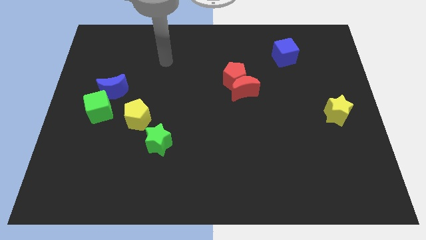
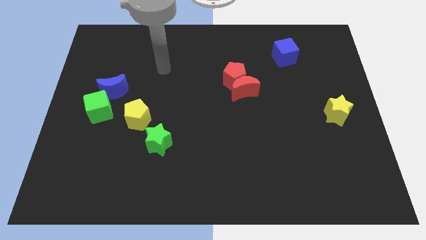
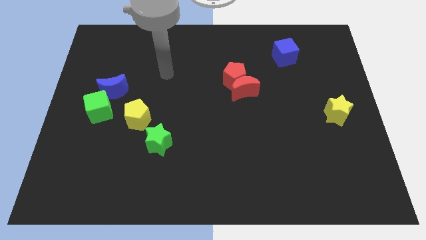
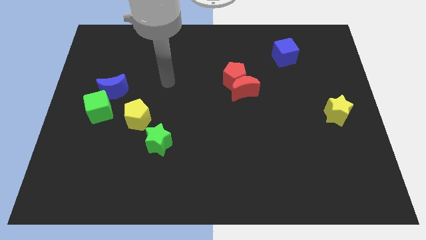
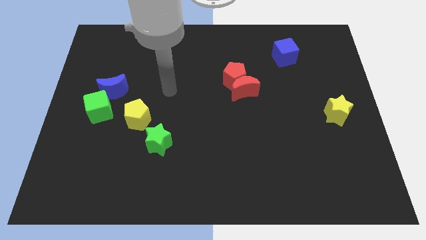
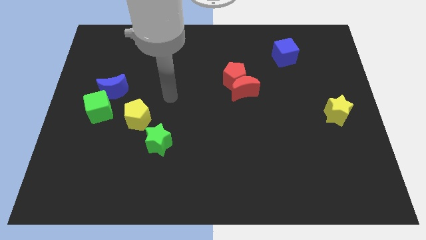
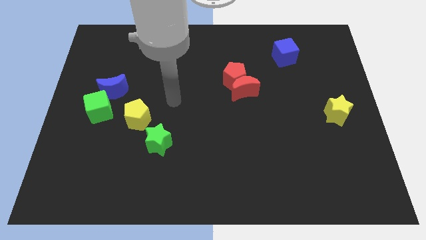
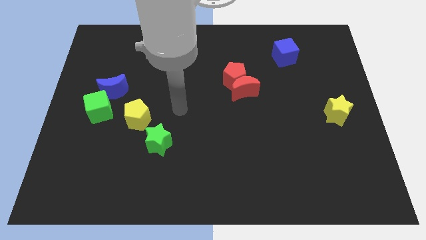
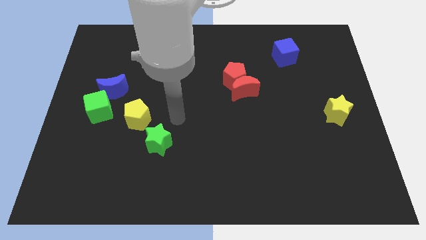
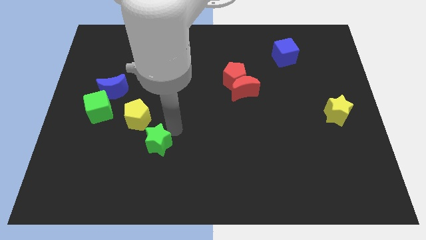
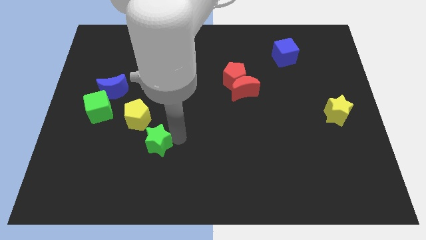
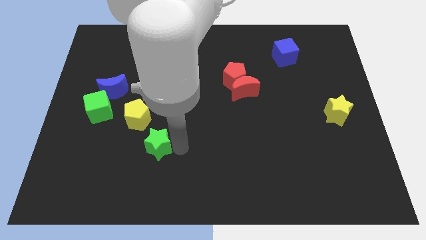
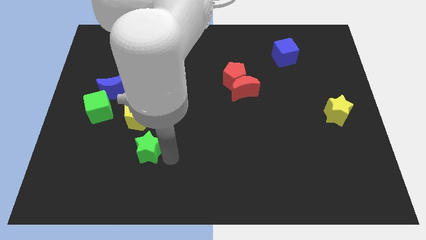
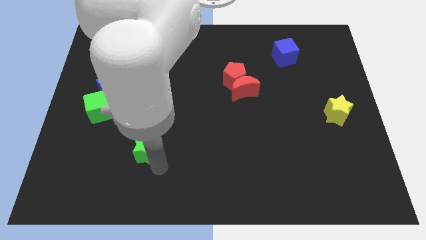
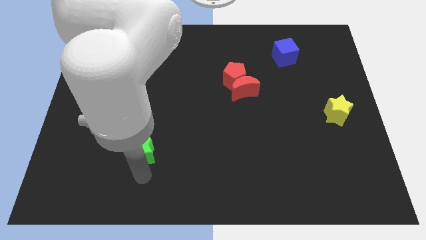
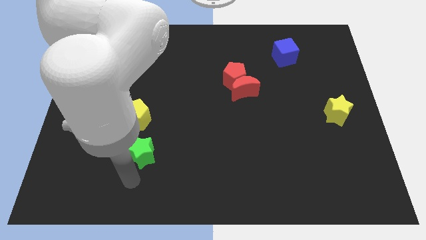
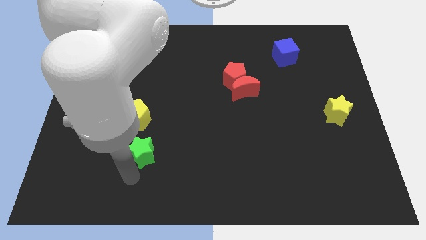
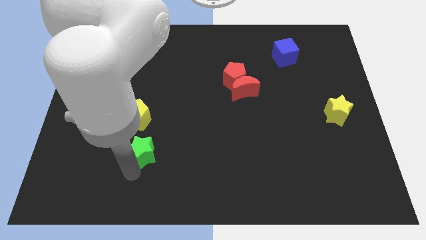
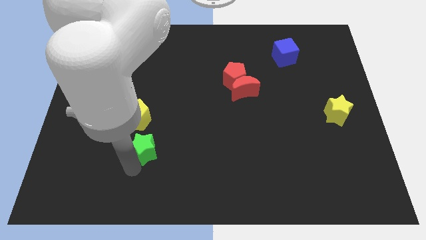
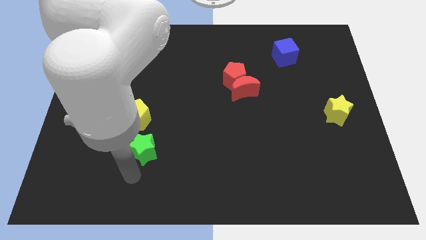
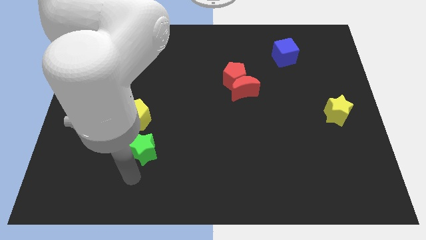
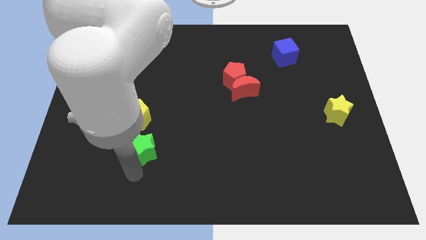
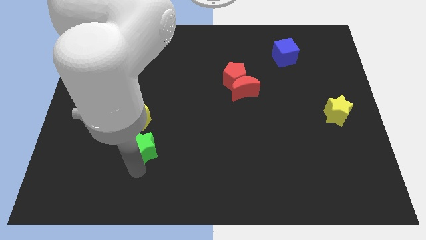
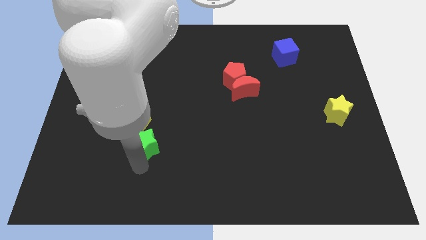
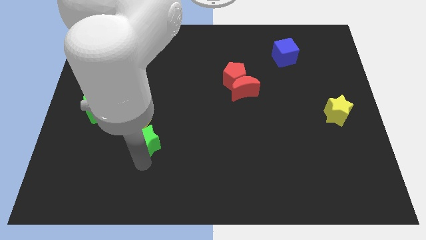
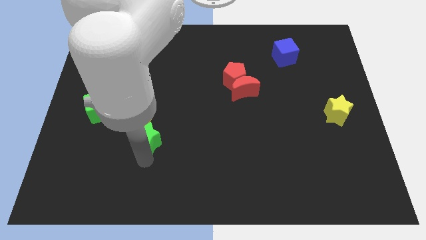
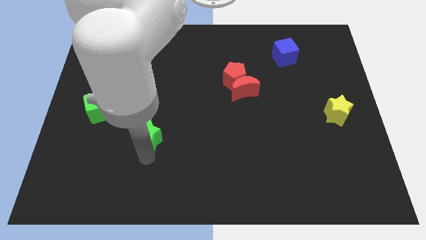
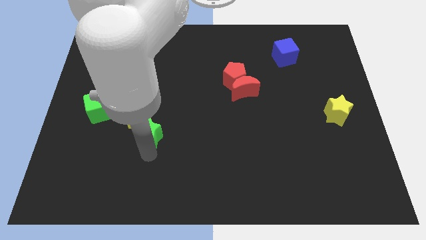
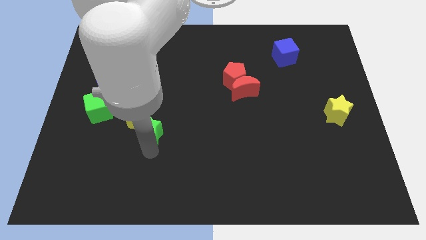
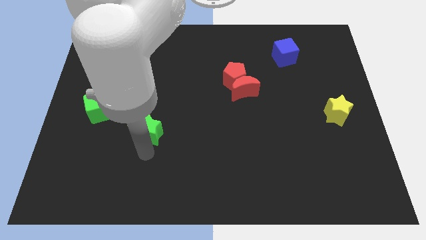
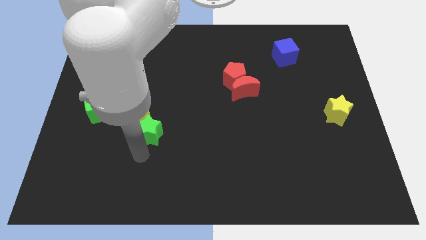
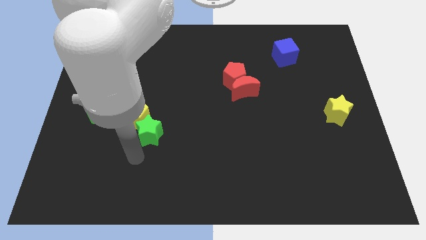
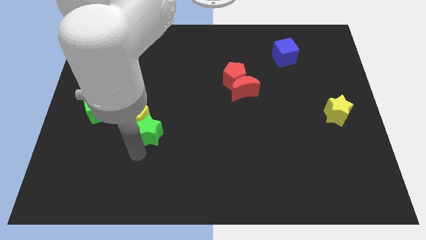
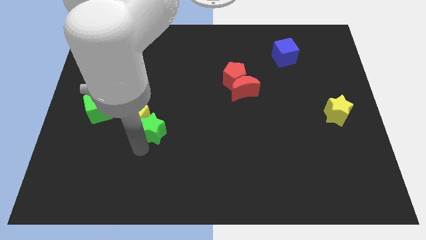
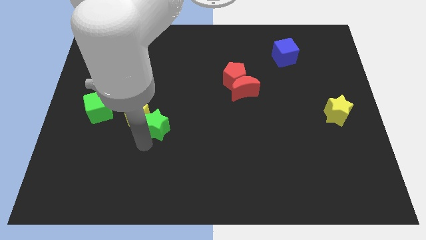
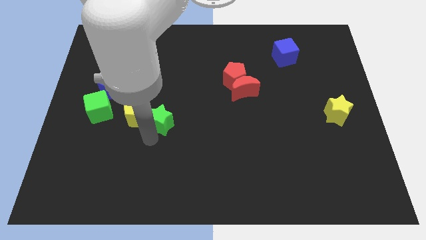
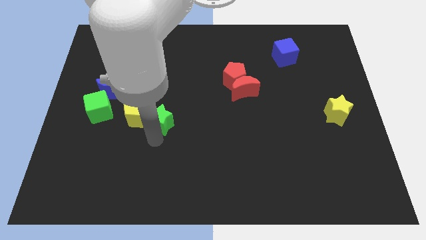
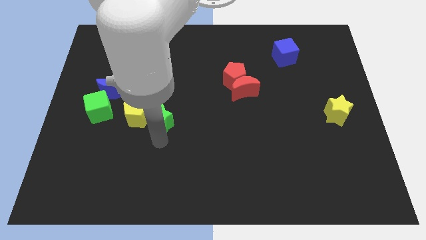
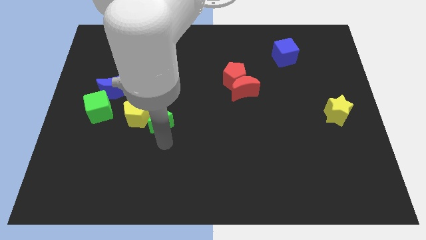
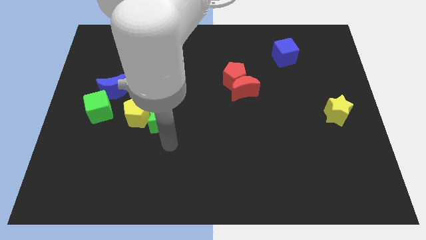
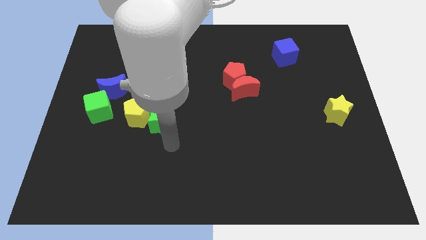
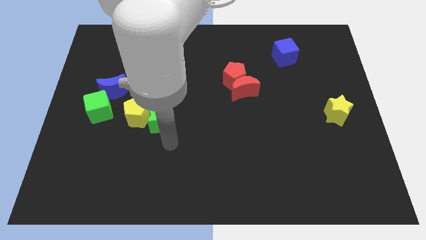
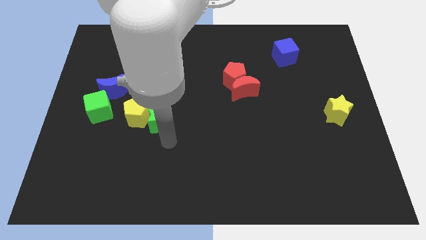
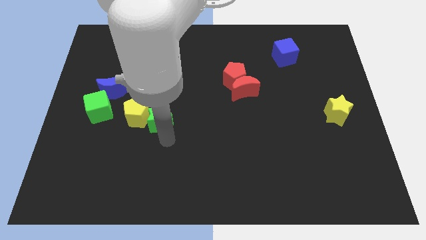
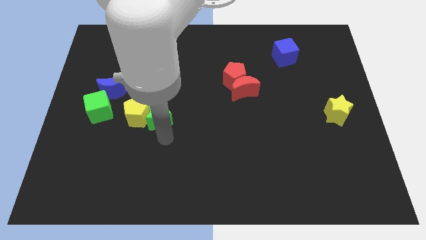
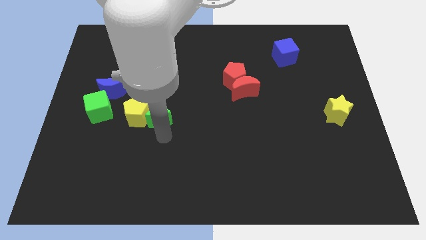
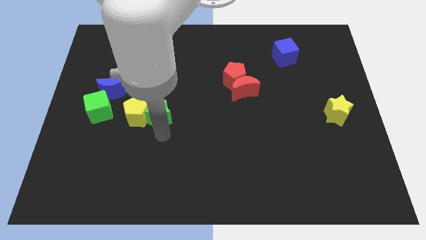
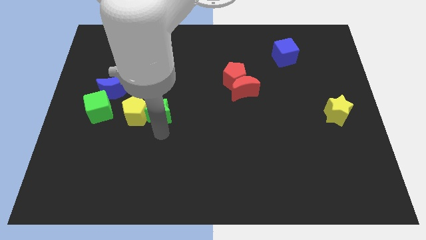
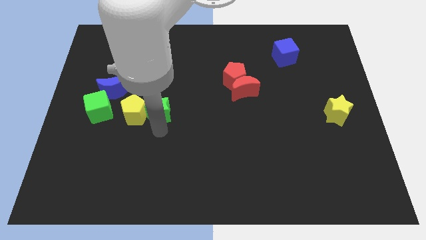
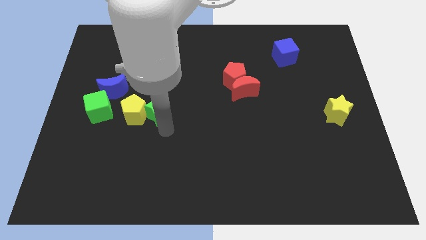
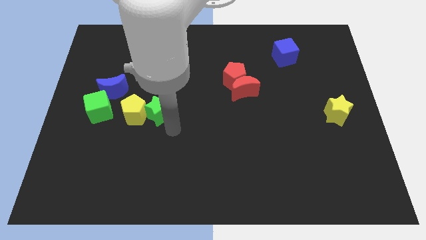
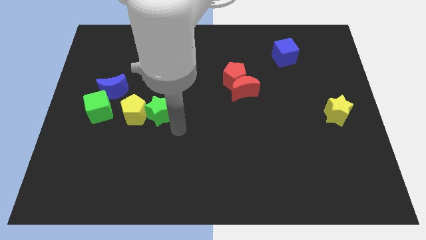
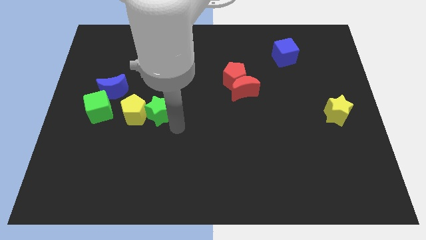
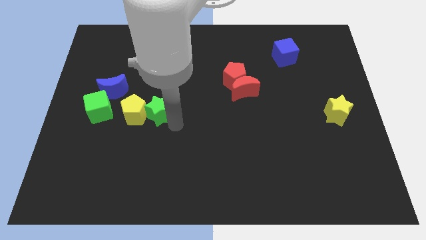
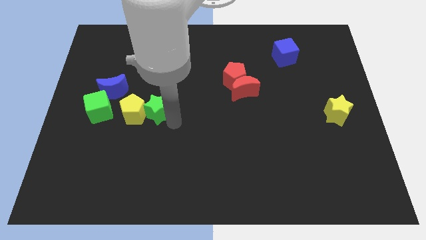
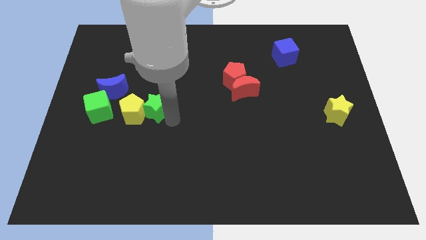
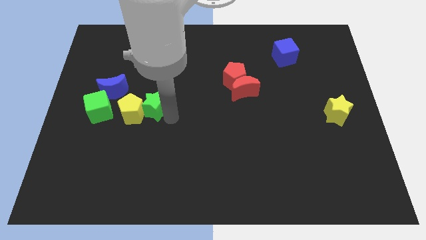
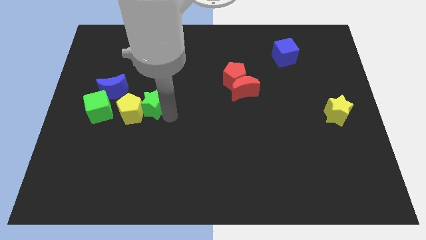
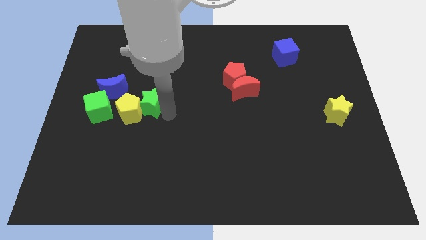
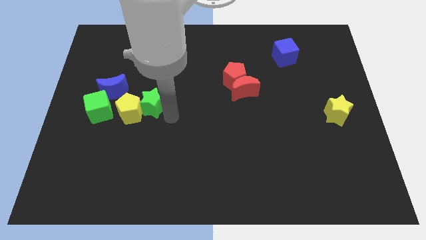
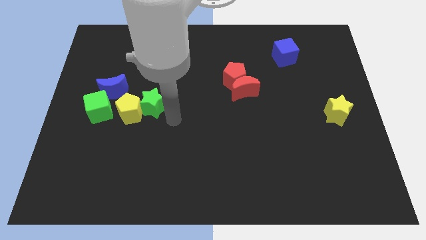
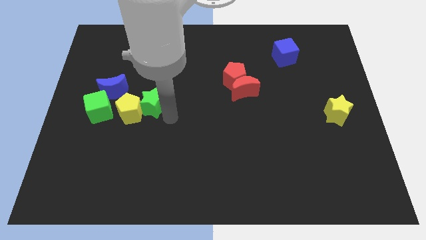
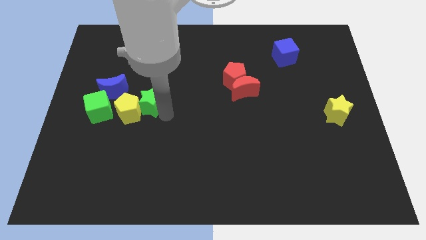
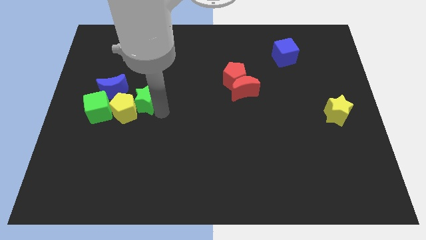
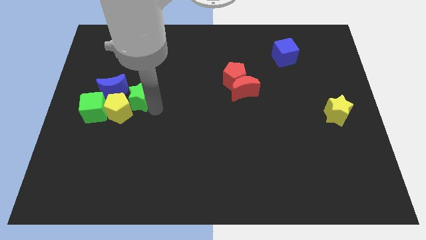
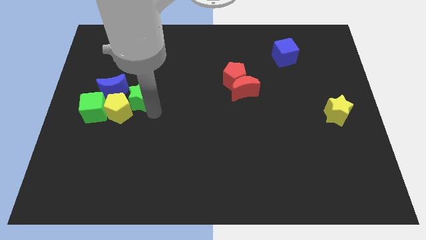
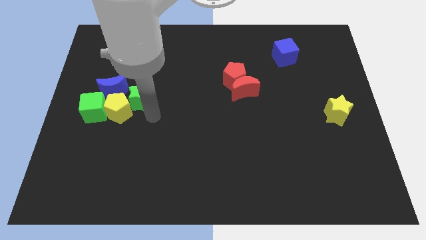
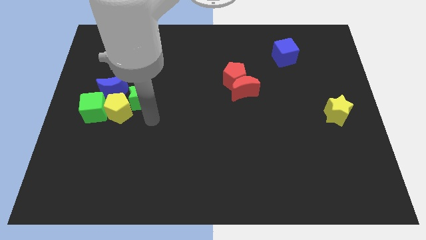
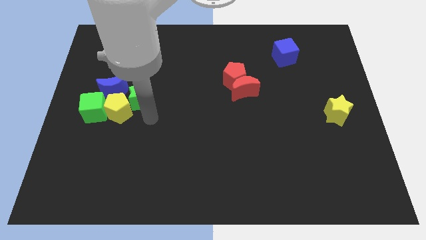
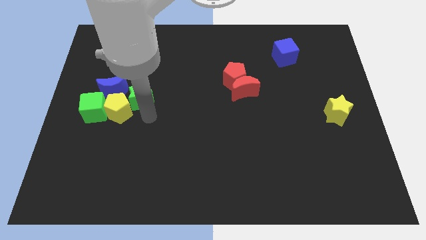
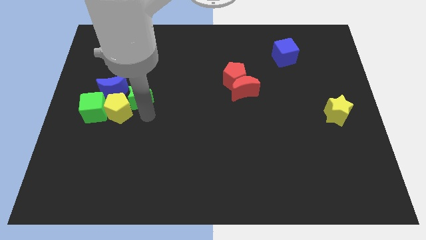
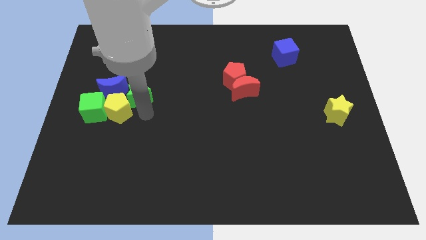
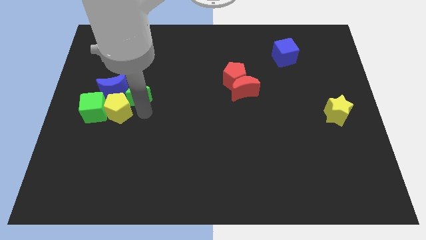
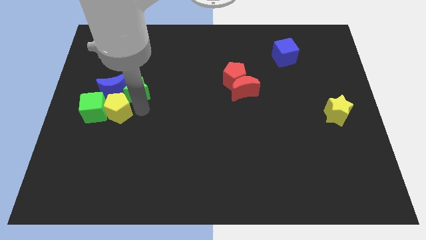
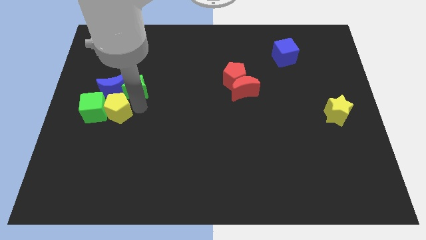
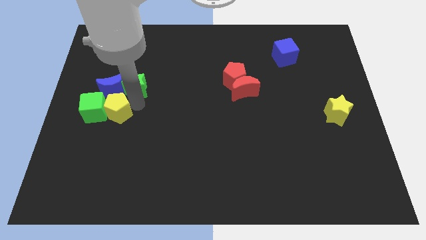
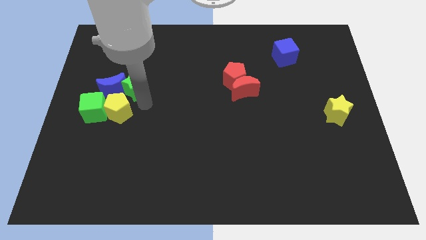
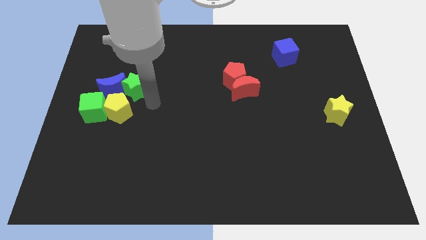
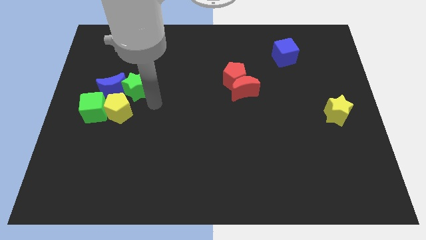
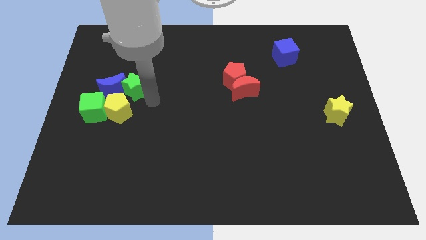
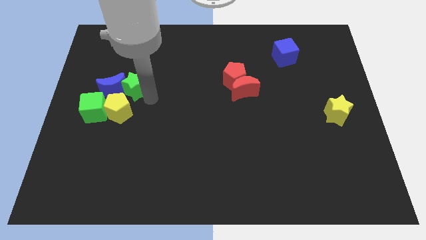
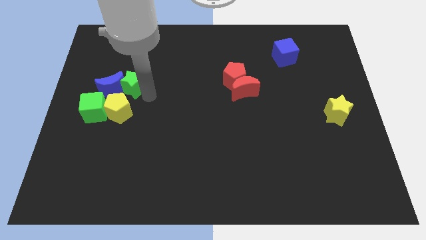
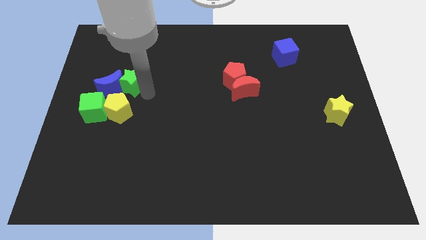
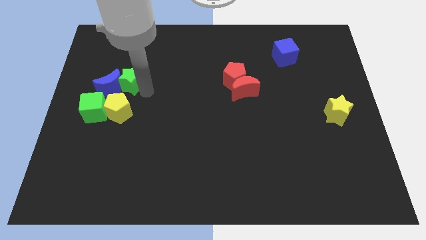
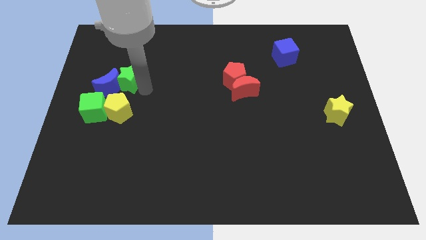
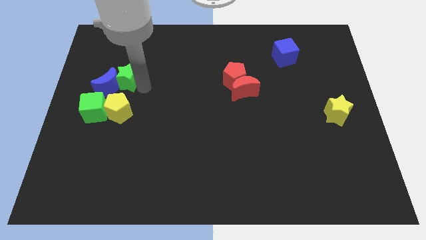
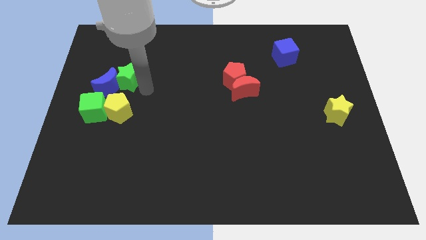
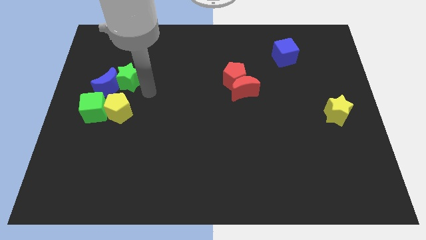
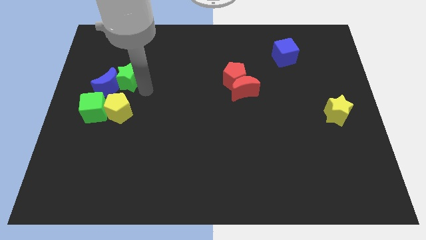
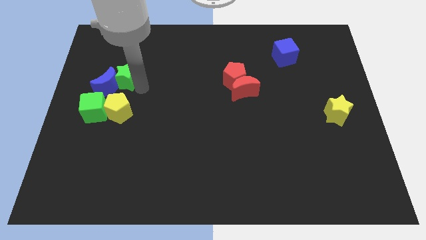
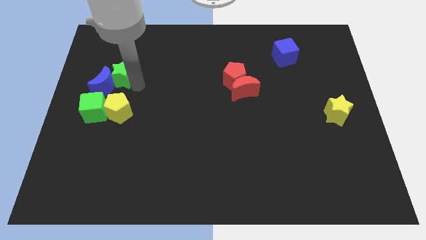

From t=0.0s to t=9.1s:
move the green star to the top of the green cube
